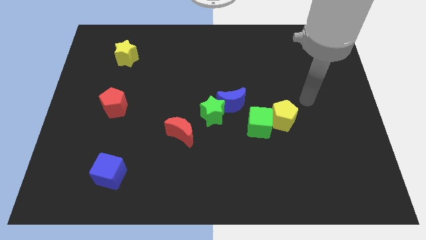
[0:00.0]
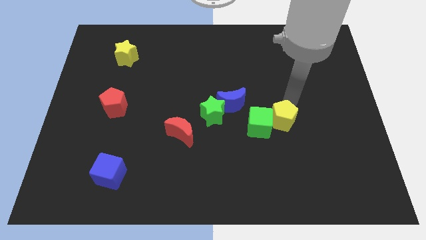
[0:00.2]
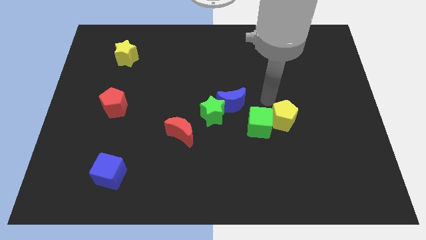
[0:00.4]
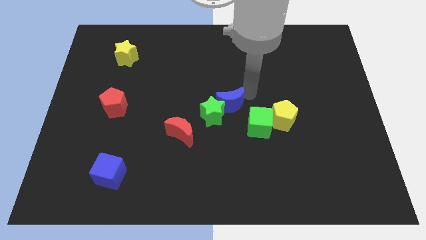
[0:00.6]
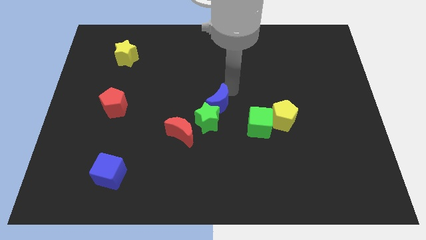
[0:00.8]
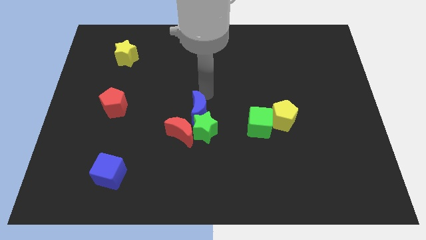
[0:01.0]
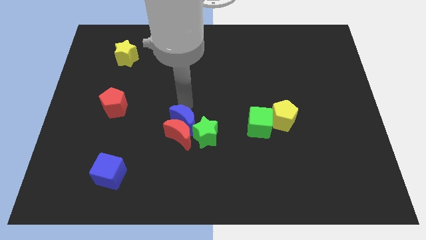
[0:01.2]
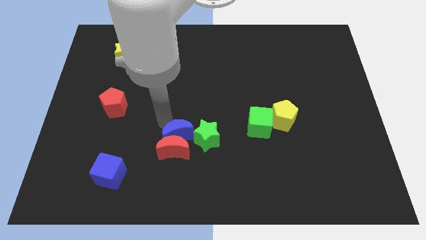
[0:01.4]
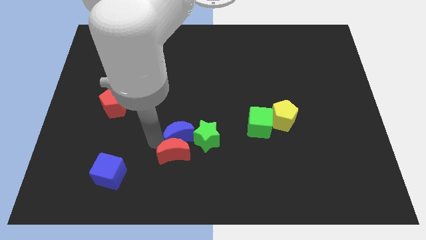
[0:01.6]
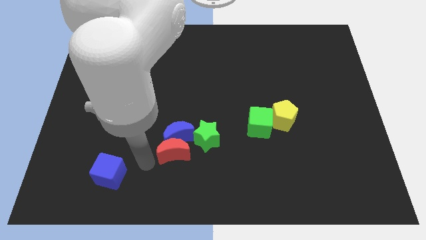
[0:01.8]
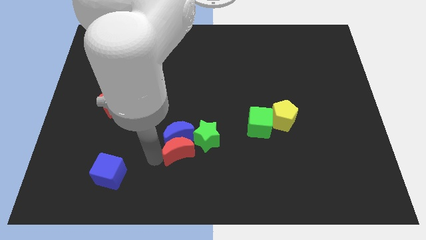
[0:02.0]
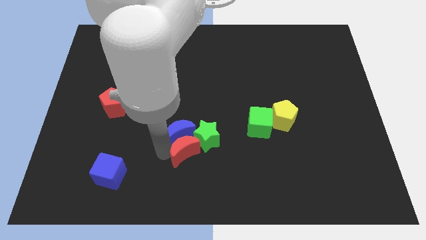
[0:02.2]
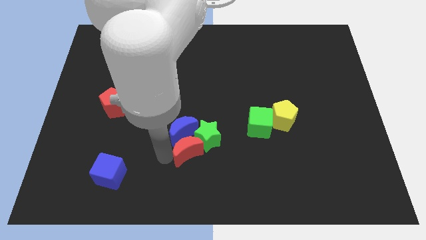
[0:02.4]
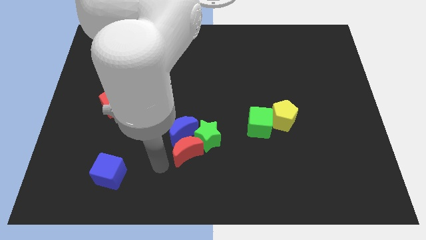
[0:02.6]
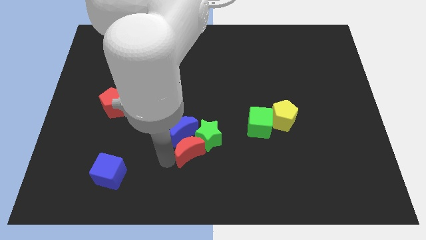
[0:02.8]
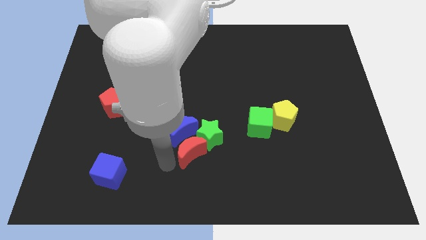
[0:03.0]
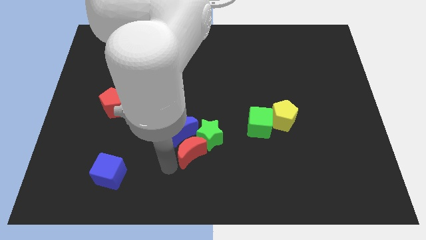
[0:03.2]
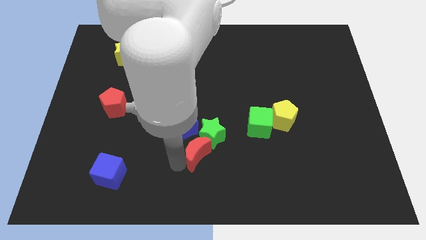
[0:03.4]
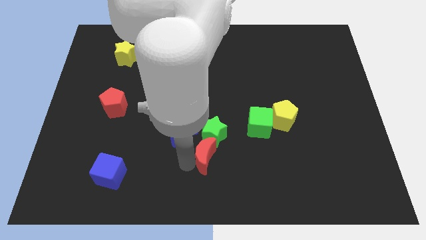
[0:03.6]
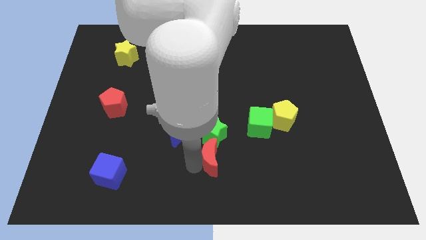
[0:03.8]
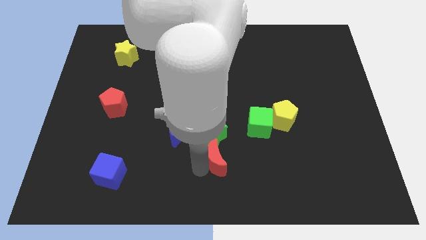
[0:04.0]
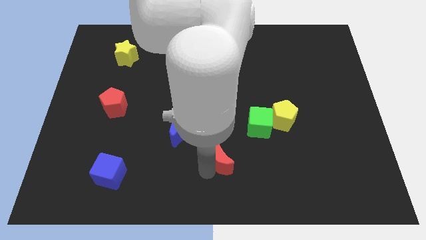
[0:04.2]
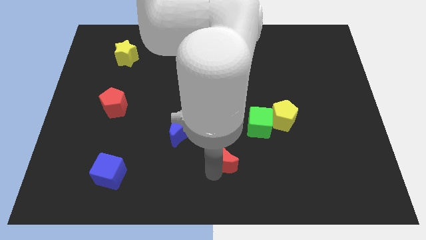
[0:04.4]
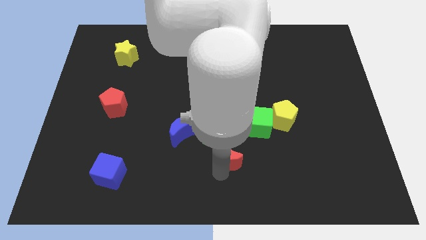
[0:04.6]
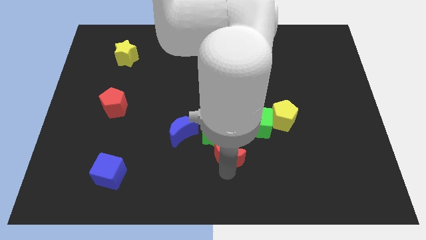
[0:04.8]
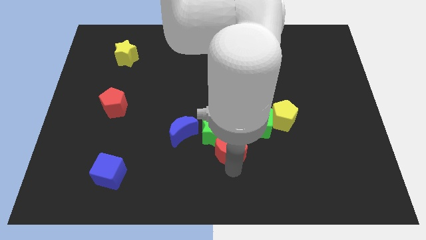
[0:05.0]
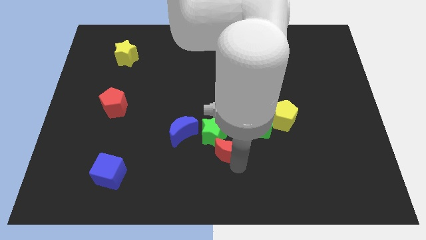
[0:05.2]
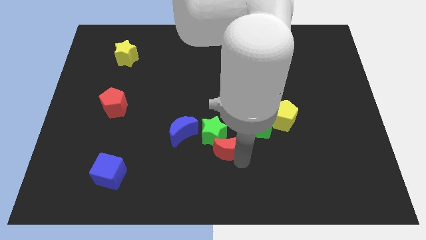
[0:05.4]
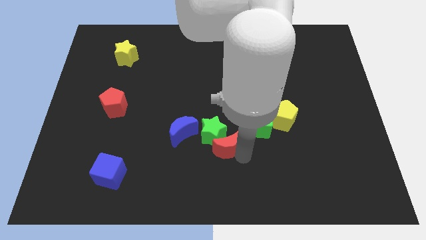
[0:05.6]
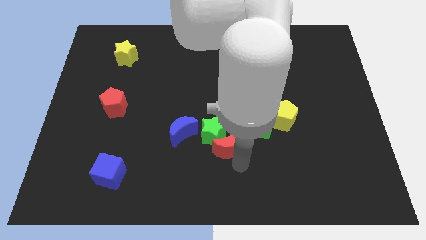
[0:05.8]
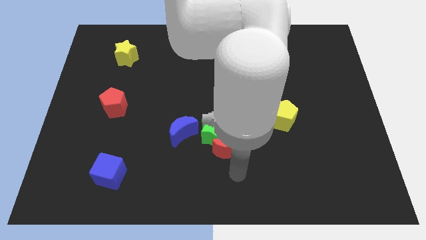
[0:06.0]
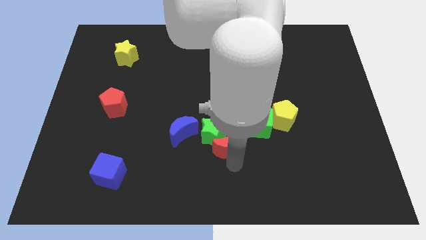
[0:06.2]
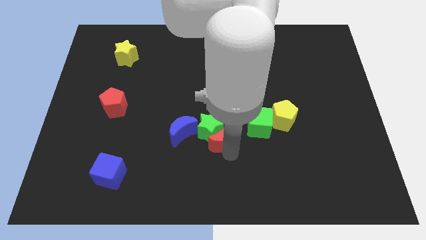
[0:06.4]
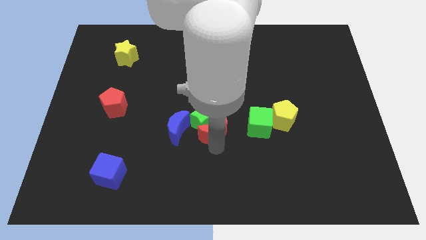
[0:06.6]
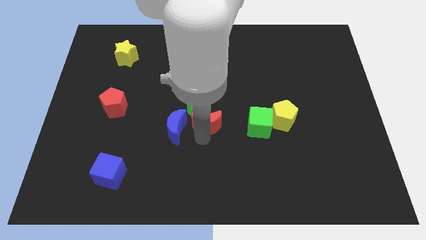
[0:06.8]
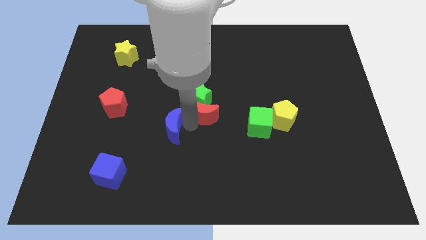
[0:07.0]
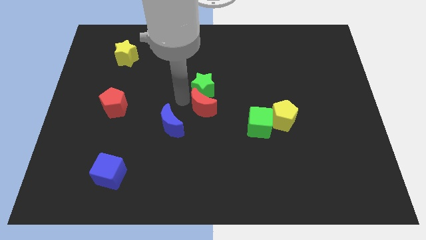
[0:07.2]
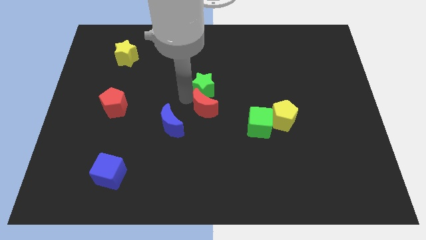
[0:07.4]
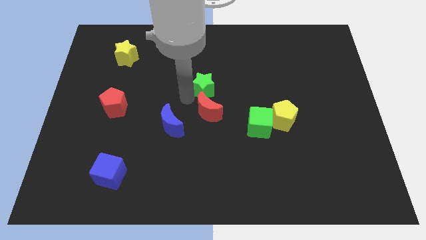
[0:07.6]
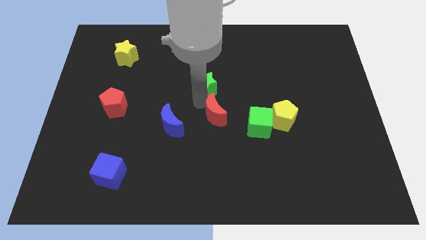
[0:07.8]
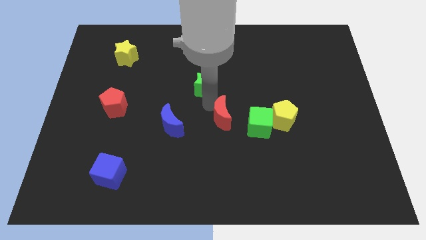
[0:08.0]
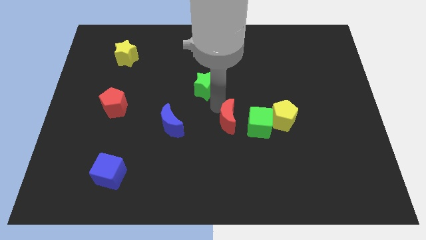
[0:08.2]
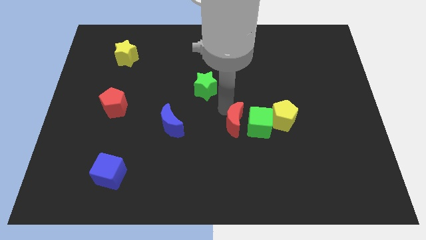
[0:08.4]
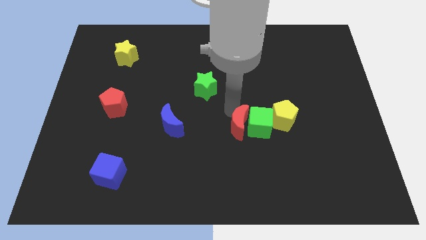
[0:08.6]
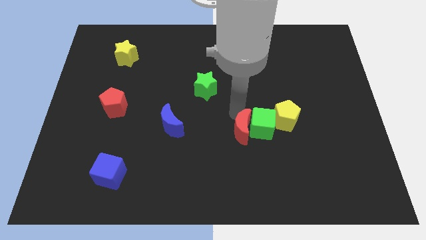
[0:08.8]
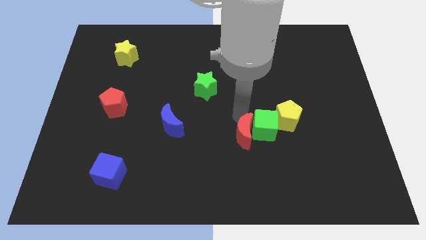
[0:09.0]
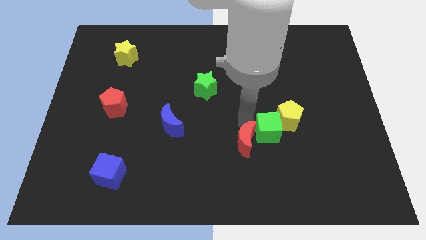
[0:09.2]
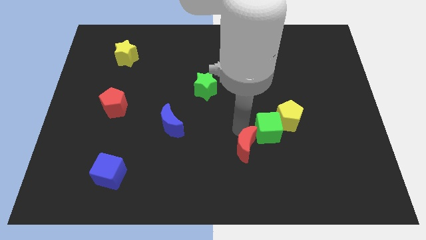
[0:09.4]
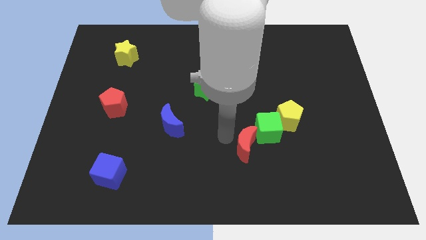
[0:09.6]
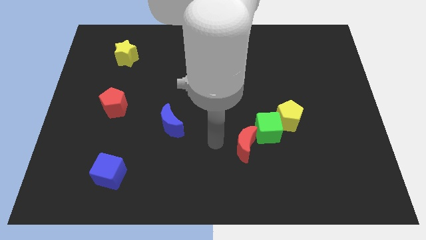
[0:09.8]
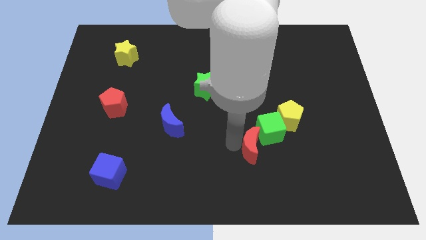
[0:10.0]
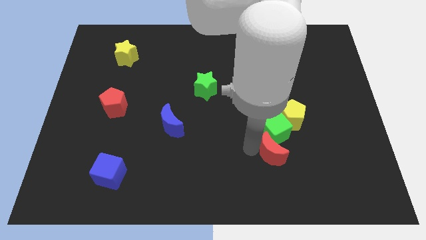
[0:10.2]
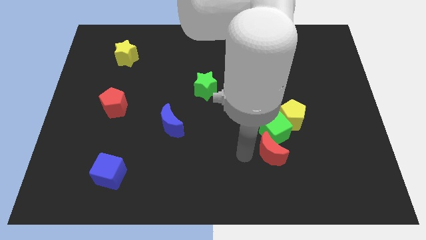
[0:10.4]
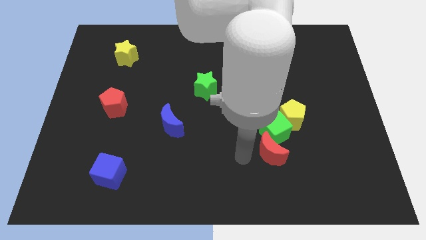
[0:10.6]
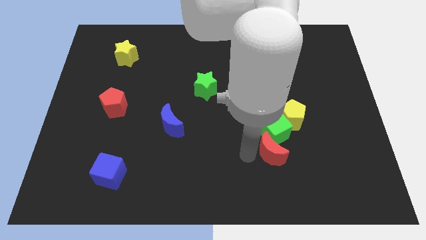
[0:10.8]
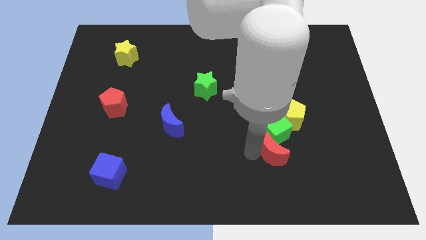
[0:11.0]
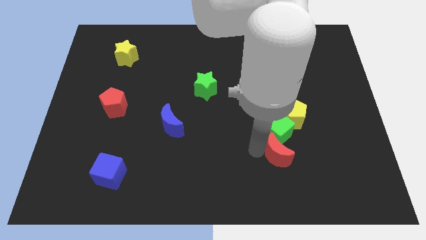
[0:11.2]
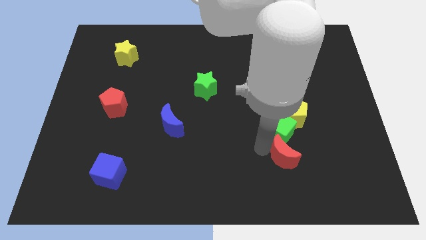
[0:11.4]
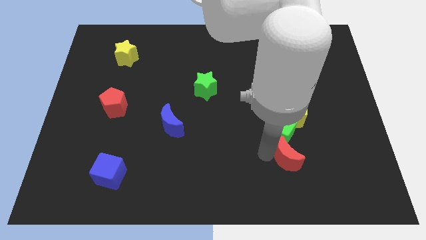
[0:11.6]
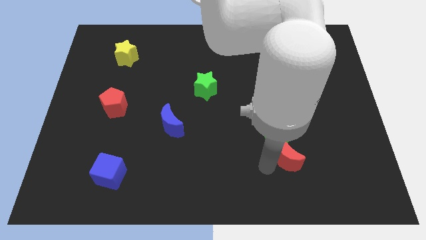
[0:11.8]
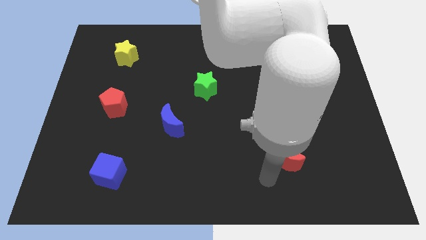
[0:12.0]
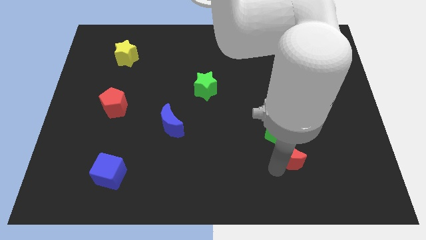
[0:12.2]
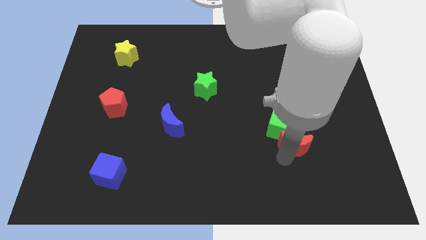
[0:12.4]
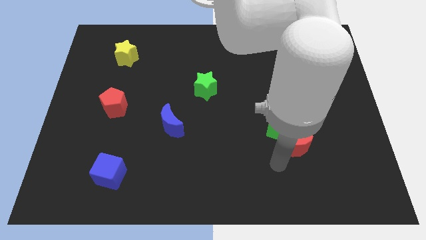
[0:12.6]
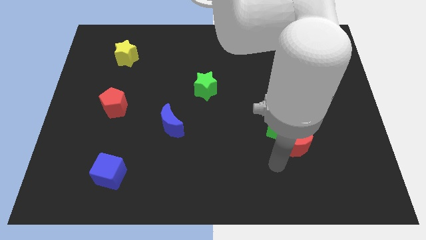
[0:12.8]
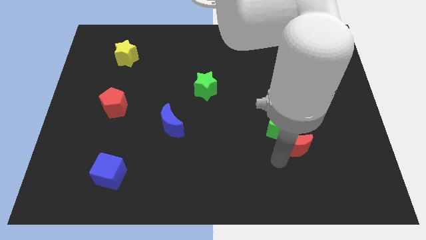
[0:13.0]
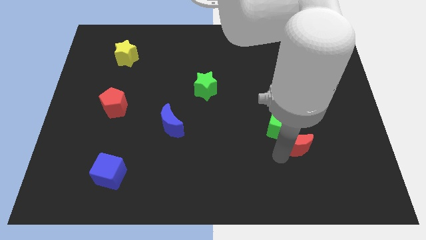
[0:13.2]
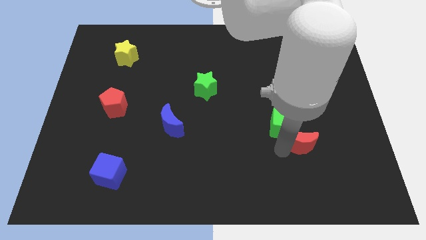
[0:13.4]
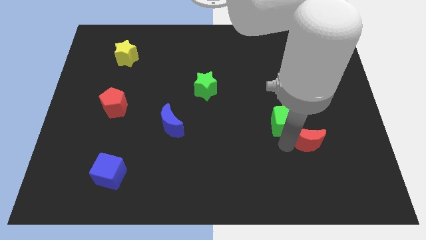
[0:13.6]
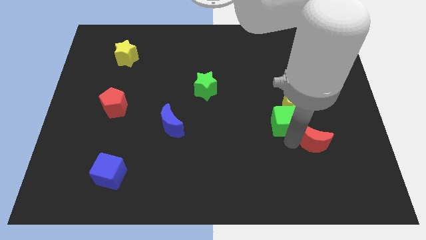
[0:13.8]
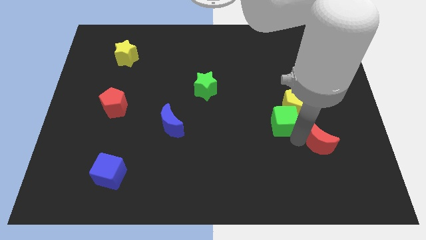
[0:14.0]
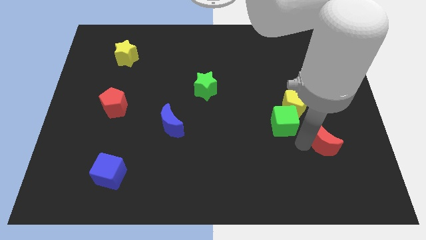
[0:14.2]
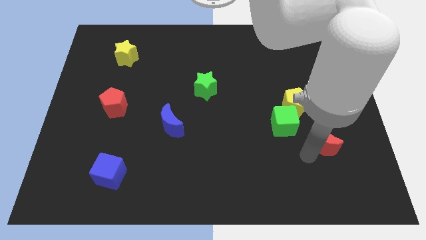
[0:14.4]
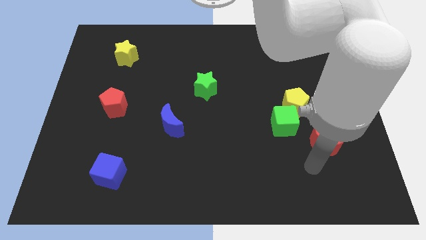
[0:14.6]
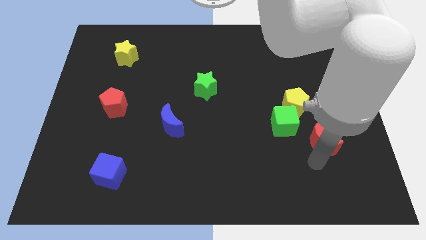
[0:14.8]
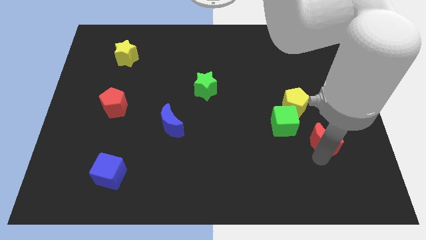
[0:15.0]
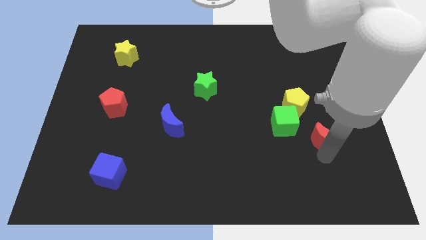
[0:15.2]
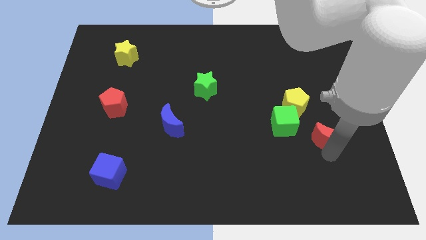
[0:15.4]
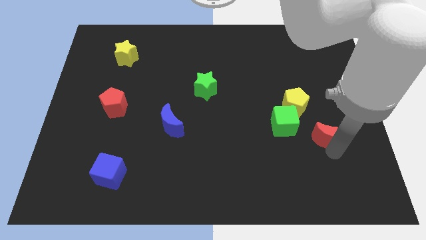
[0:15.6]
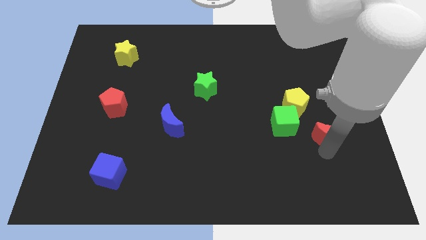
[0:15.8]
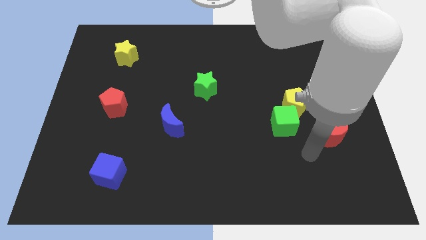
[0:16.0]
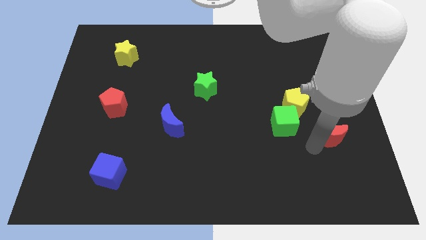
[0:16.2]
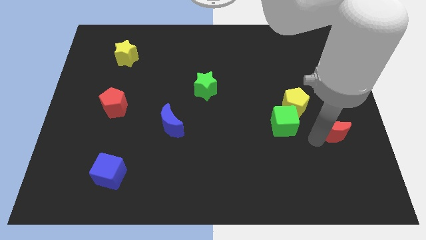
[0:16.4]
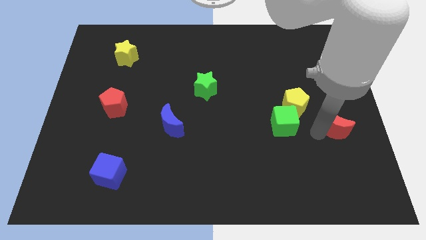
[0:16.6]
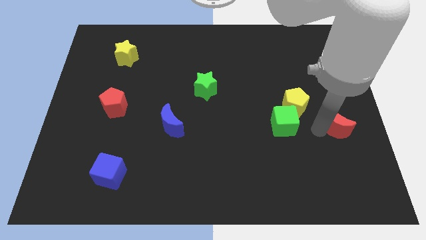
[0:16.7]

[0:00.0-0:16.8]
move the red moon to the right side
